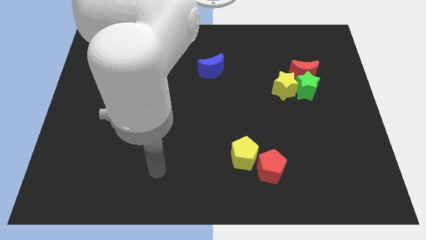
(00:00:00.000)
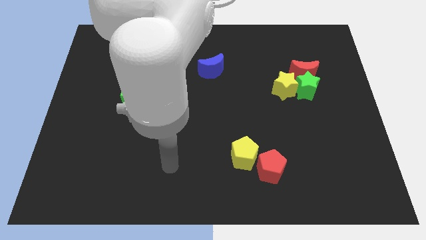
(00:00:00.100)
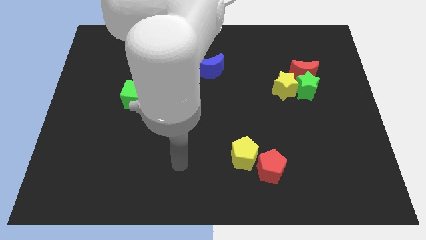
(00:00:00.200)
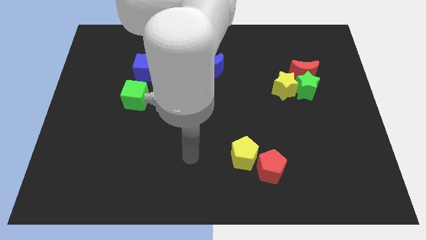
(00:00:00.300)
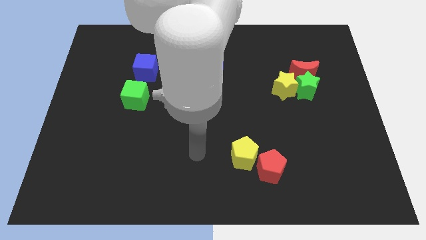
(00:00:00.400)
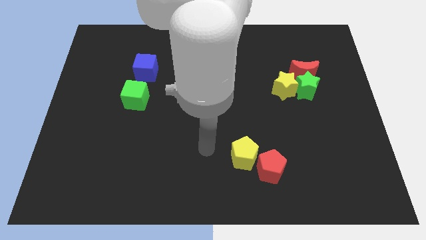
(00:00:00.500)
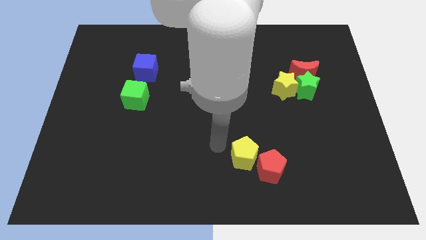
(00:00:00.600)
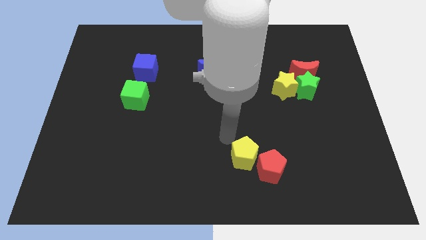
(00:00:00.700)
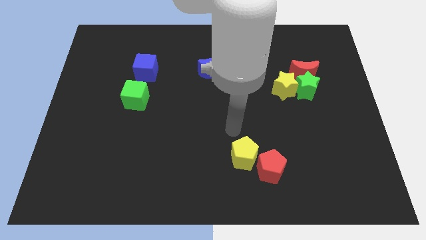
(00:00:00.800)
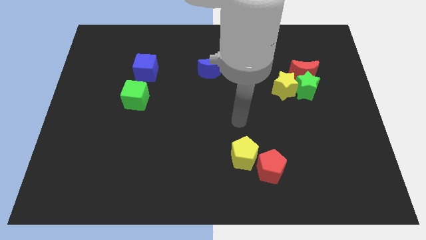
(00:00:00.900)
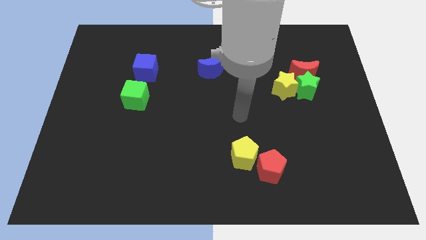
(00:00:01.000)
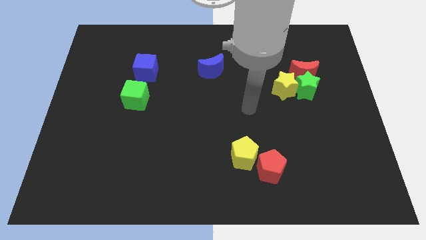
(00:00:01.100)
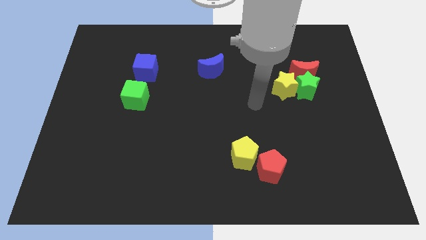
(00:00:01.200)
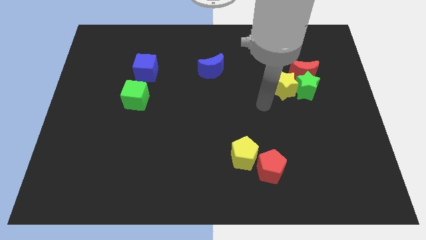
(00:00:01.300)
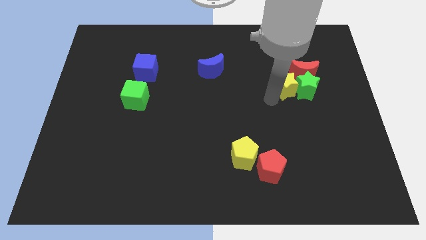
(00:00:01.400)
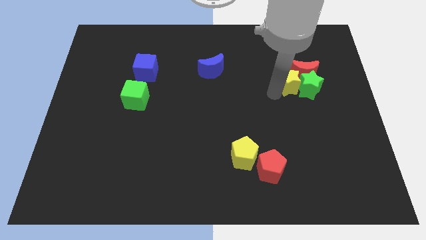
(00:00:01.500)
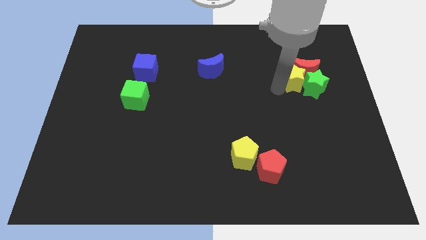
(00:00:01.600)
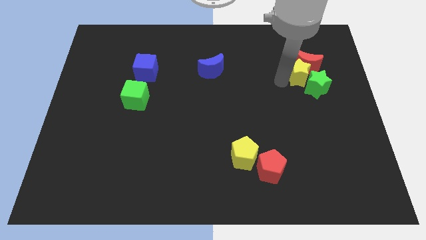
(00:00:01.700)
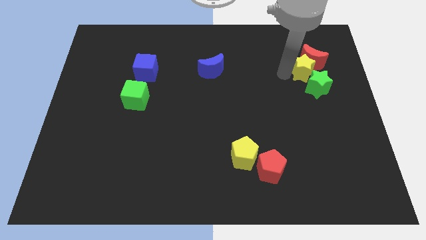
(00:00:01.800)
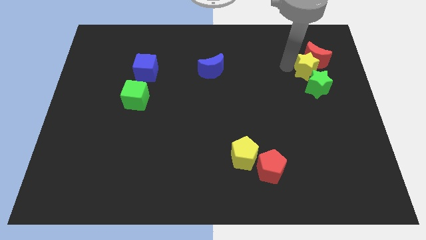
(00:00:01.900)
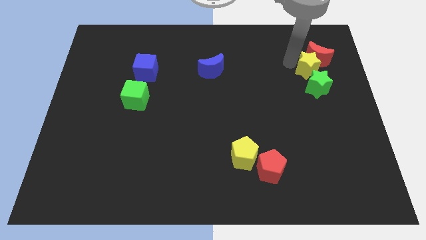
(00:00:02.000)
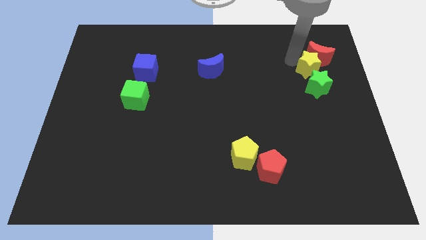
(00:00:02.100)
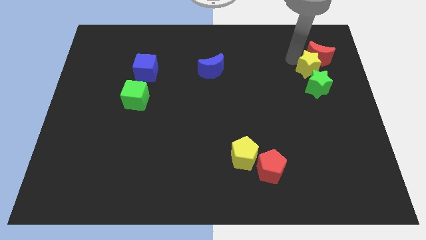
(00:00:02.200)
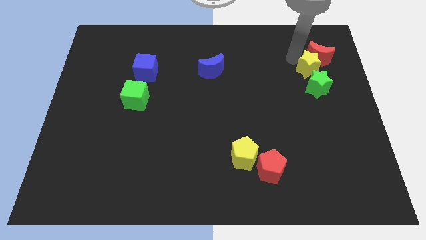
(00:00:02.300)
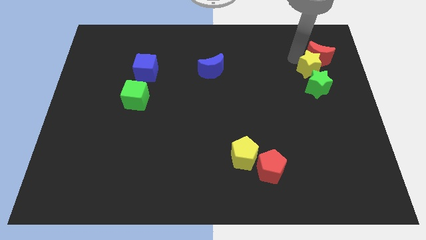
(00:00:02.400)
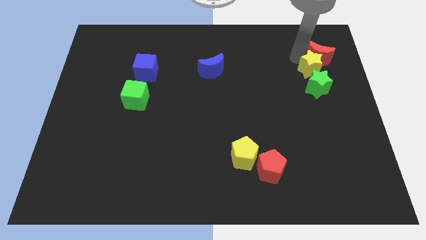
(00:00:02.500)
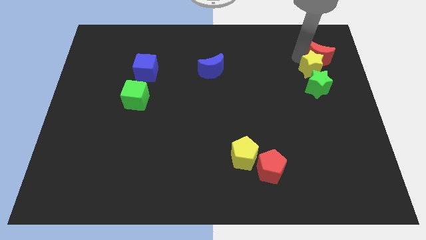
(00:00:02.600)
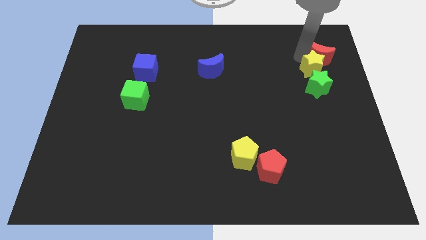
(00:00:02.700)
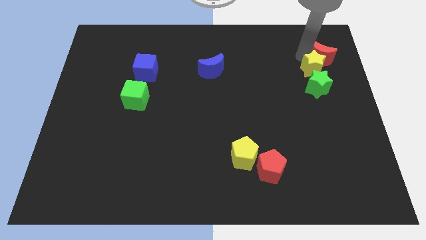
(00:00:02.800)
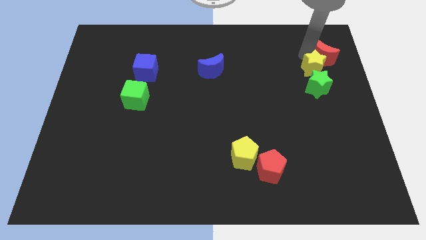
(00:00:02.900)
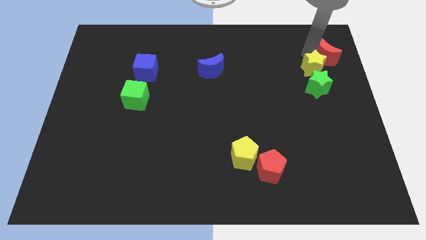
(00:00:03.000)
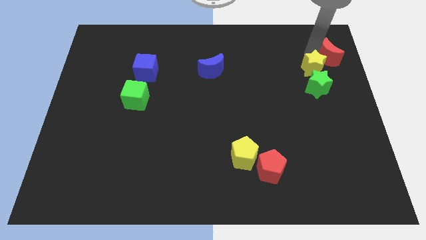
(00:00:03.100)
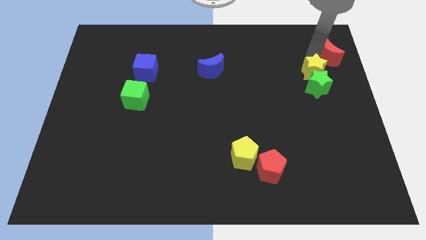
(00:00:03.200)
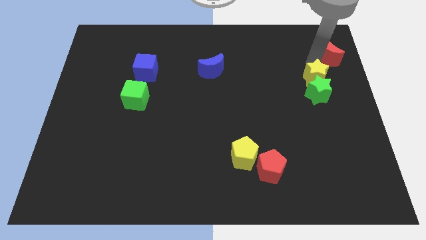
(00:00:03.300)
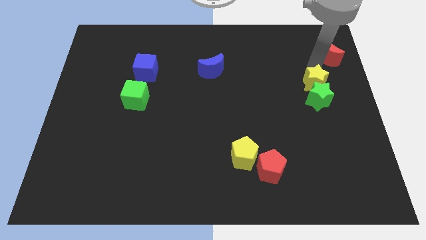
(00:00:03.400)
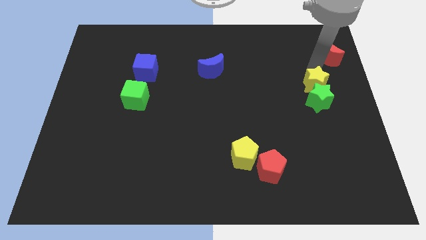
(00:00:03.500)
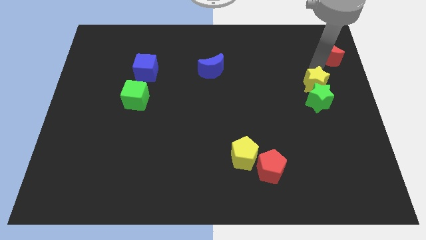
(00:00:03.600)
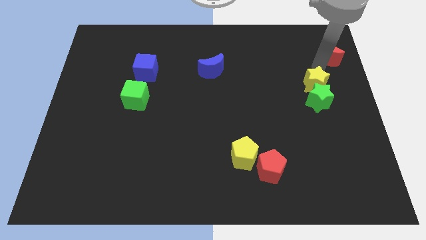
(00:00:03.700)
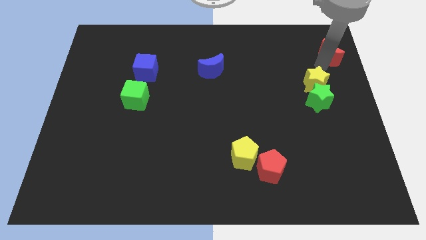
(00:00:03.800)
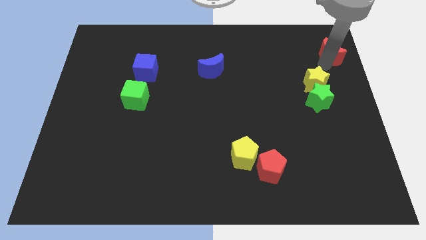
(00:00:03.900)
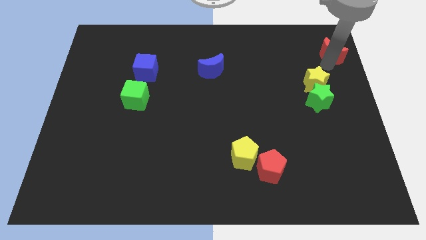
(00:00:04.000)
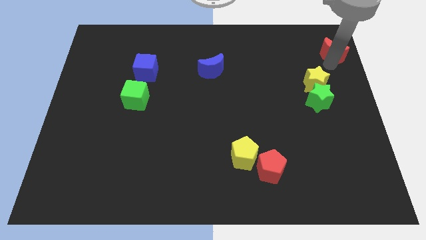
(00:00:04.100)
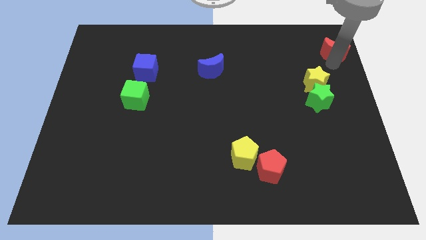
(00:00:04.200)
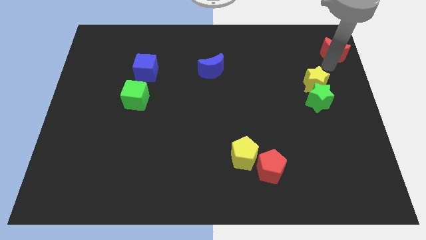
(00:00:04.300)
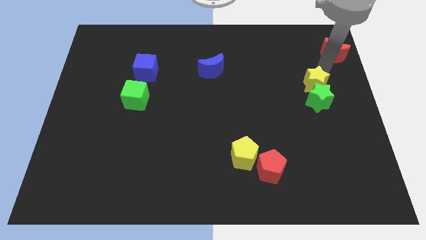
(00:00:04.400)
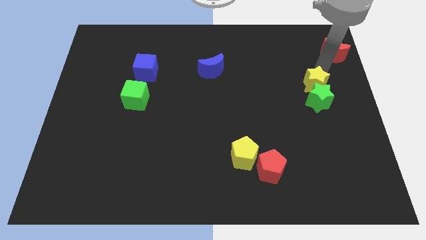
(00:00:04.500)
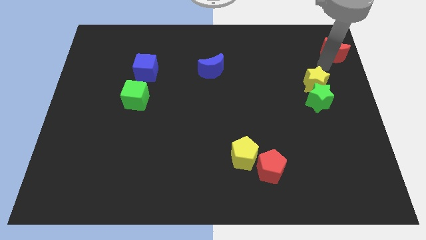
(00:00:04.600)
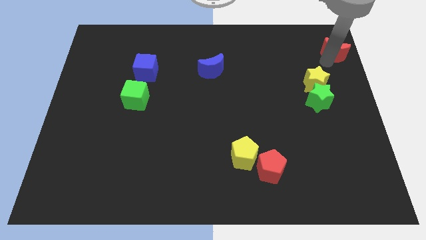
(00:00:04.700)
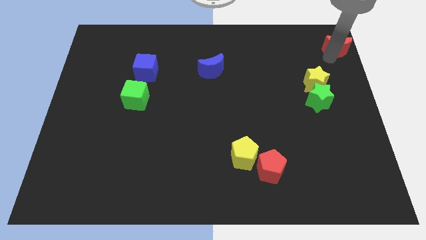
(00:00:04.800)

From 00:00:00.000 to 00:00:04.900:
move the red moon to the upper right corner

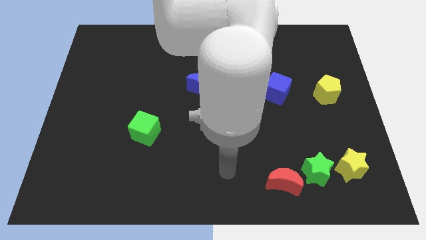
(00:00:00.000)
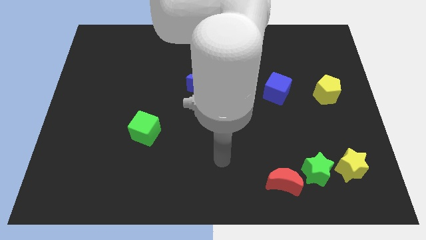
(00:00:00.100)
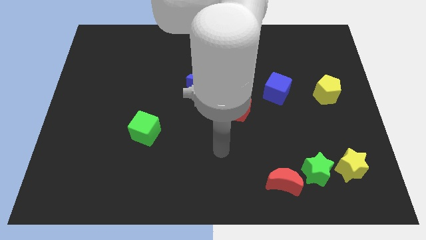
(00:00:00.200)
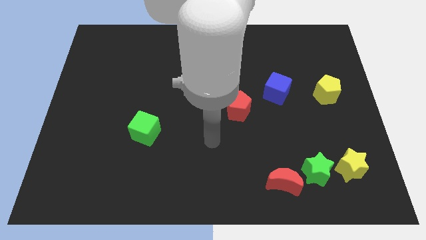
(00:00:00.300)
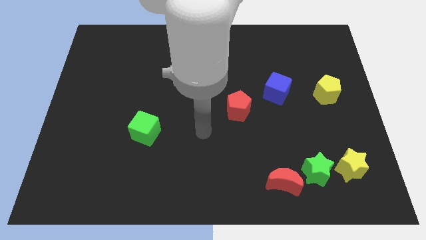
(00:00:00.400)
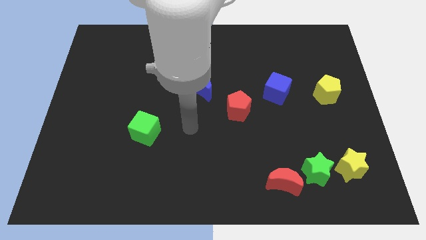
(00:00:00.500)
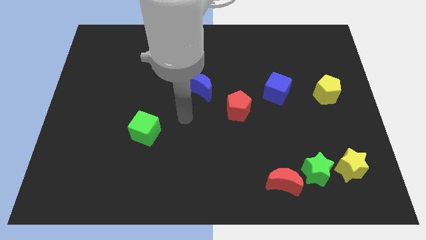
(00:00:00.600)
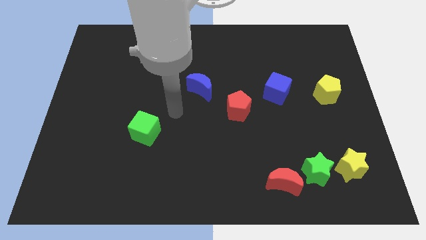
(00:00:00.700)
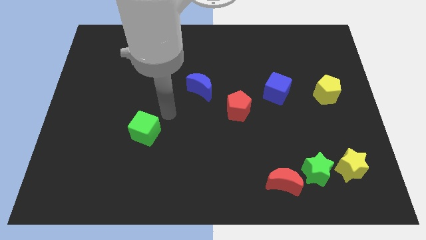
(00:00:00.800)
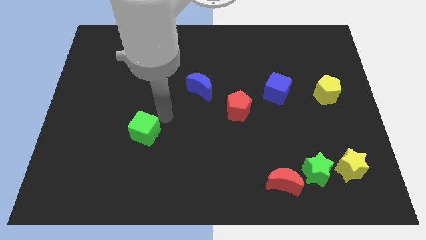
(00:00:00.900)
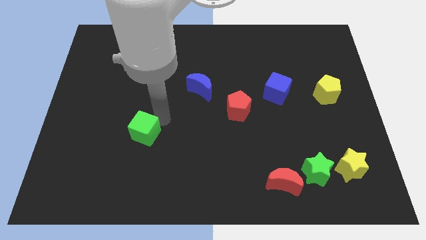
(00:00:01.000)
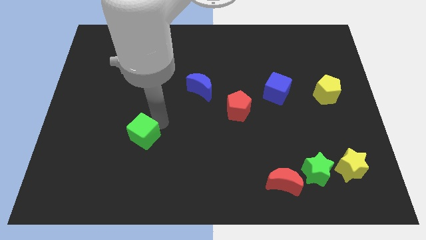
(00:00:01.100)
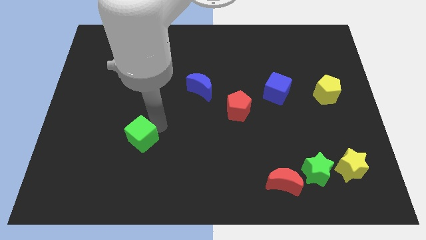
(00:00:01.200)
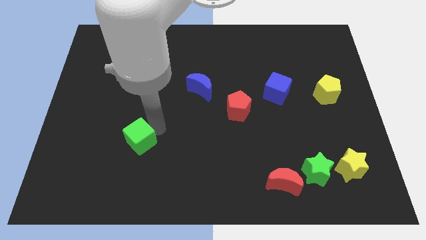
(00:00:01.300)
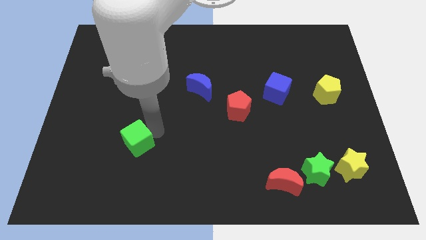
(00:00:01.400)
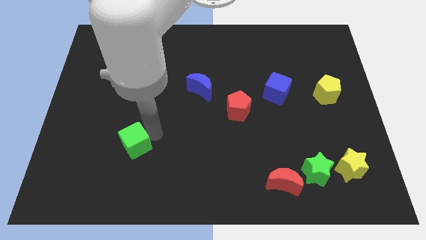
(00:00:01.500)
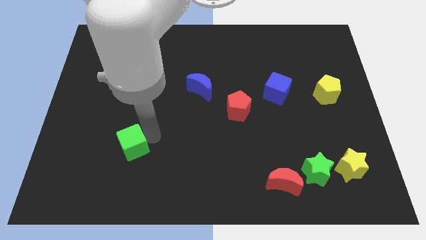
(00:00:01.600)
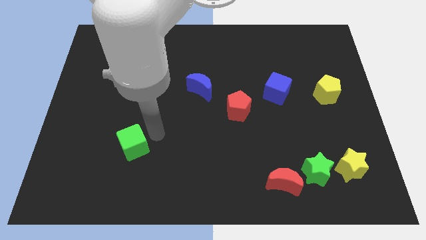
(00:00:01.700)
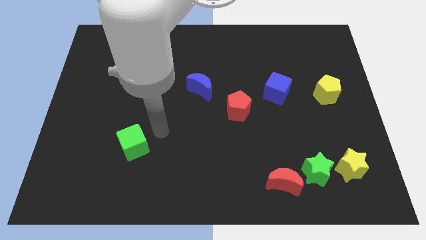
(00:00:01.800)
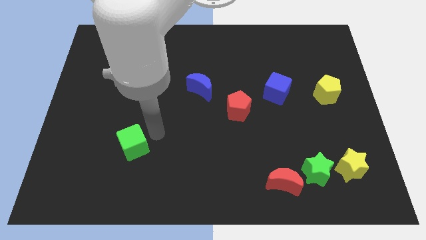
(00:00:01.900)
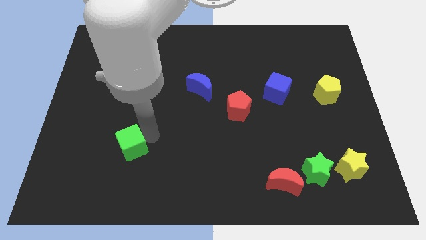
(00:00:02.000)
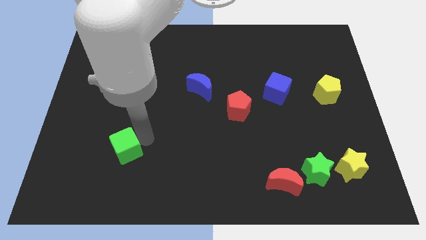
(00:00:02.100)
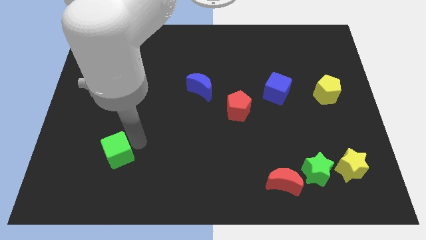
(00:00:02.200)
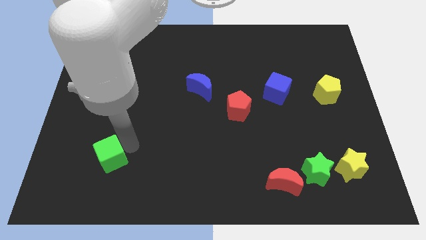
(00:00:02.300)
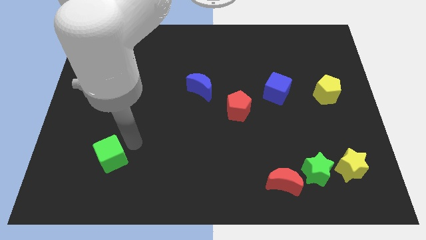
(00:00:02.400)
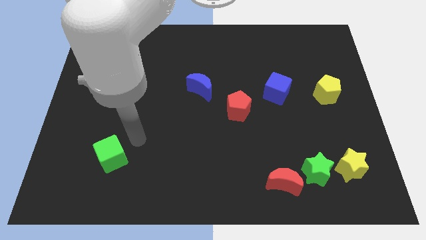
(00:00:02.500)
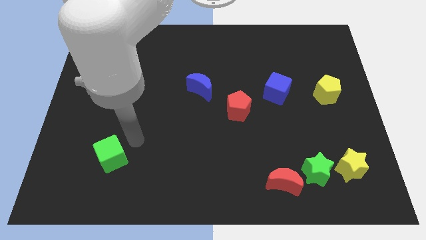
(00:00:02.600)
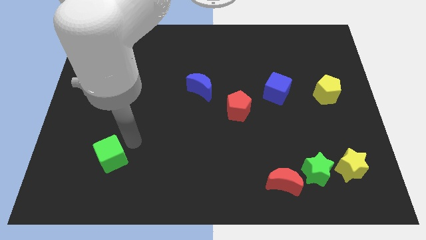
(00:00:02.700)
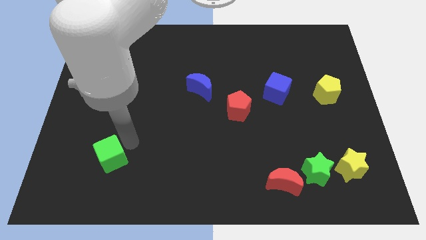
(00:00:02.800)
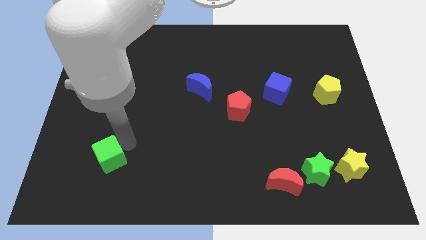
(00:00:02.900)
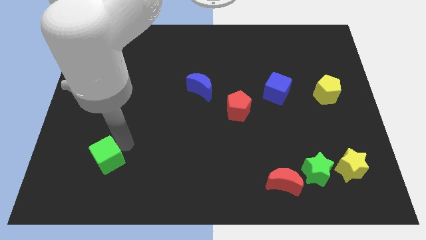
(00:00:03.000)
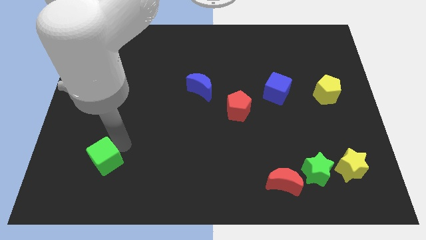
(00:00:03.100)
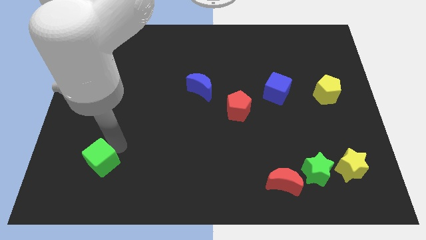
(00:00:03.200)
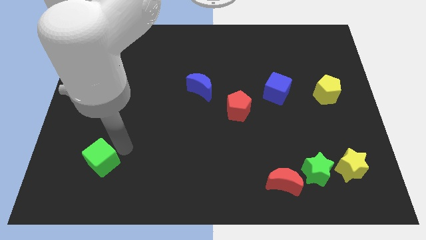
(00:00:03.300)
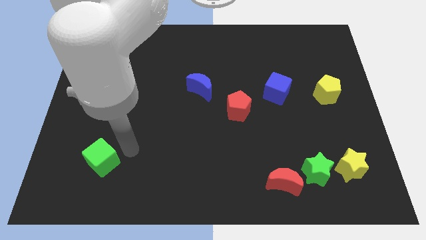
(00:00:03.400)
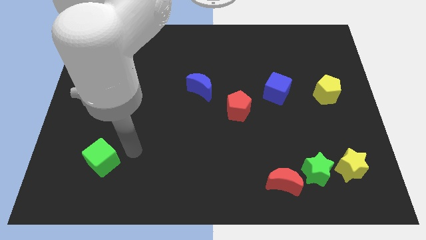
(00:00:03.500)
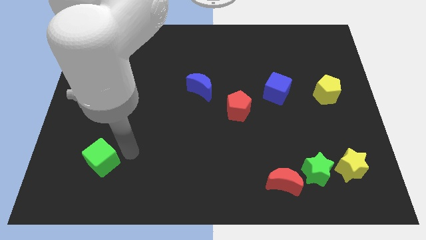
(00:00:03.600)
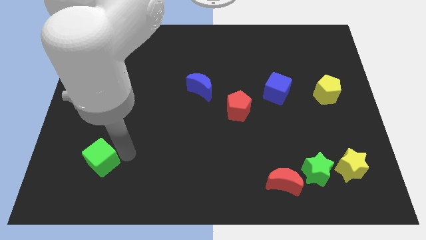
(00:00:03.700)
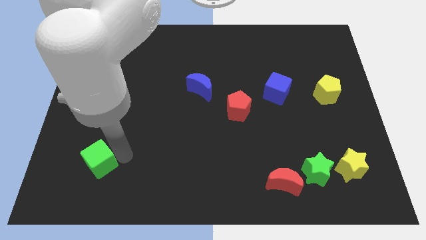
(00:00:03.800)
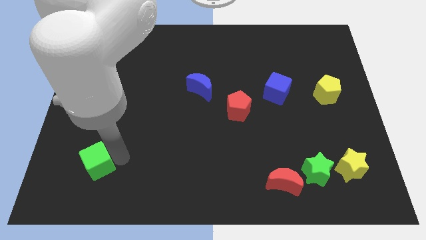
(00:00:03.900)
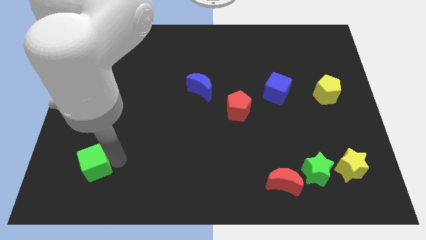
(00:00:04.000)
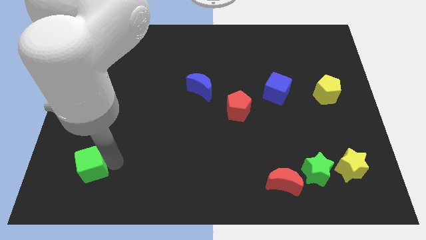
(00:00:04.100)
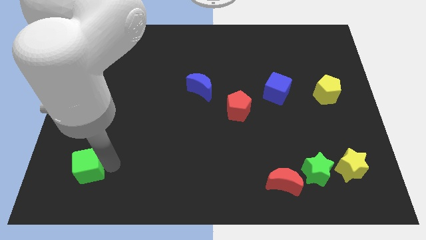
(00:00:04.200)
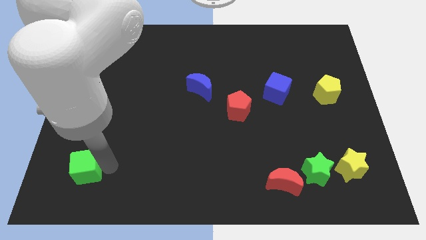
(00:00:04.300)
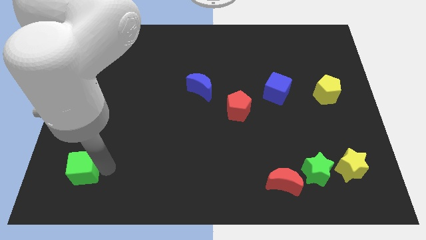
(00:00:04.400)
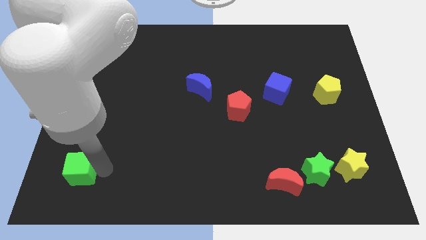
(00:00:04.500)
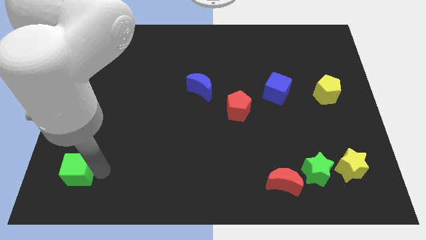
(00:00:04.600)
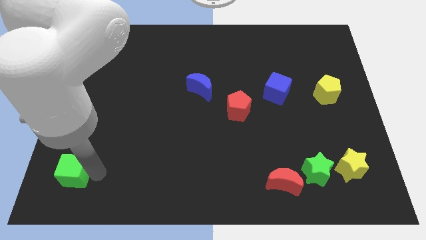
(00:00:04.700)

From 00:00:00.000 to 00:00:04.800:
push the green cube to the lower left corner
